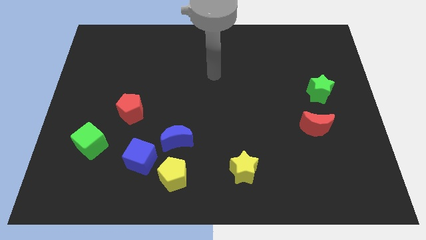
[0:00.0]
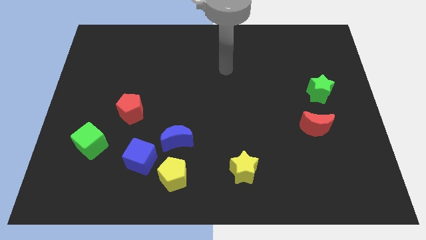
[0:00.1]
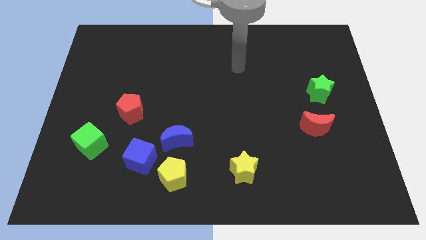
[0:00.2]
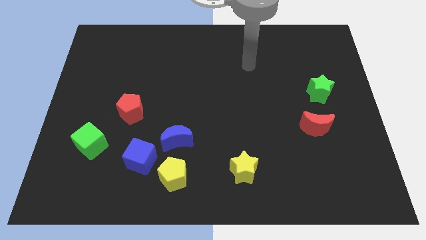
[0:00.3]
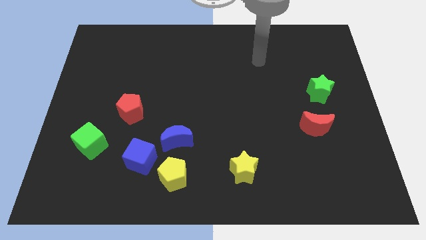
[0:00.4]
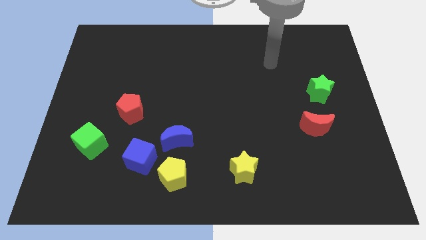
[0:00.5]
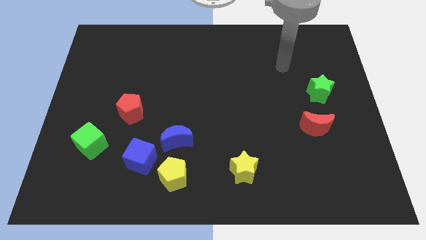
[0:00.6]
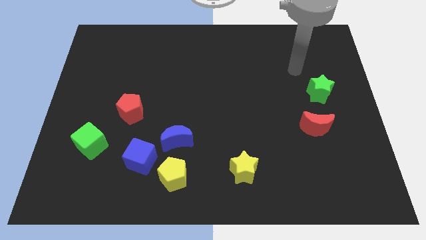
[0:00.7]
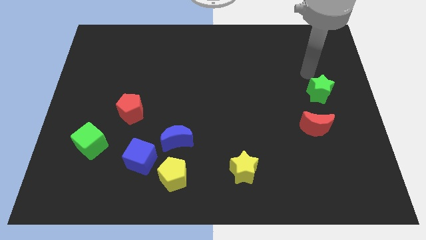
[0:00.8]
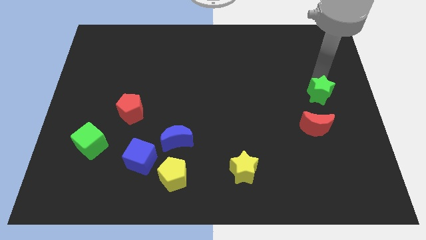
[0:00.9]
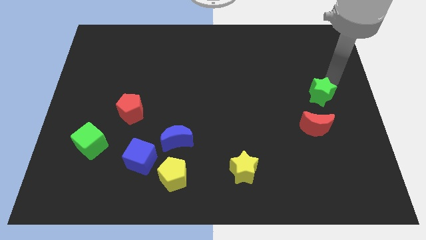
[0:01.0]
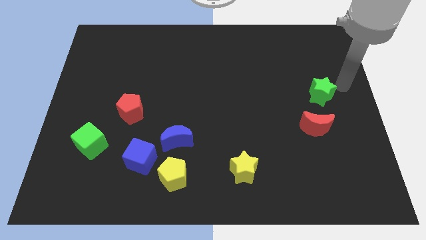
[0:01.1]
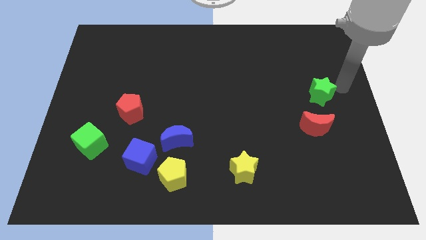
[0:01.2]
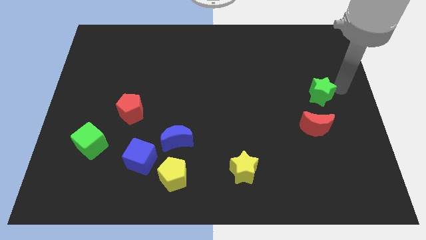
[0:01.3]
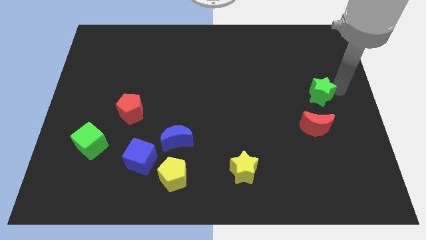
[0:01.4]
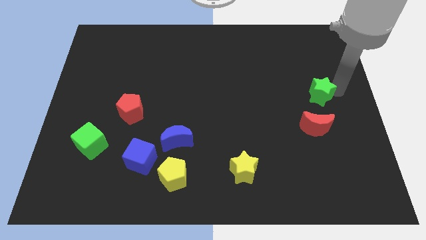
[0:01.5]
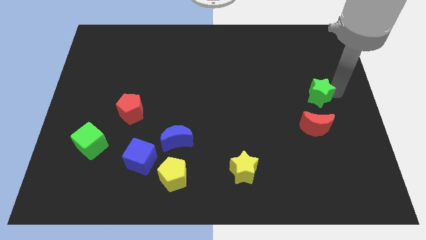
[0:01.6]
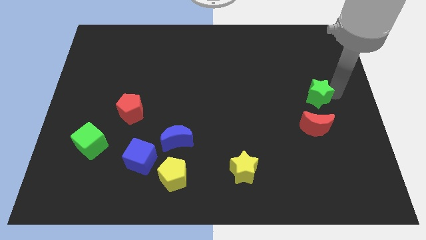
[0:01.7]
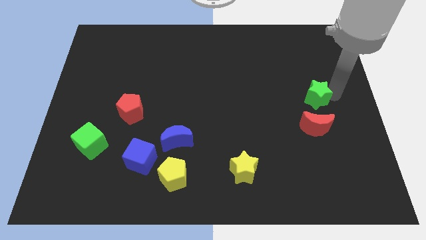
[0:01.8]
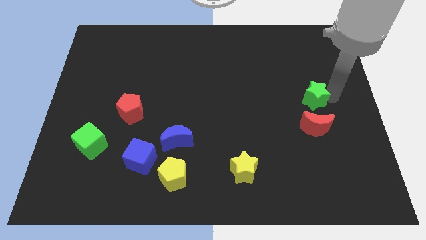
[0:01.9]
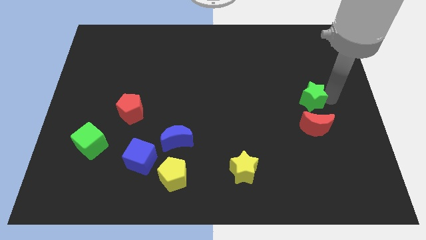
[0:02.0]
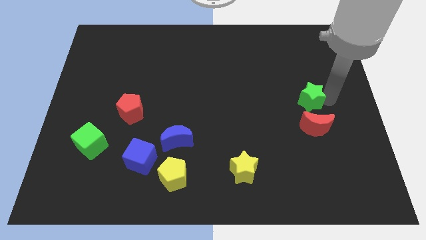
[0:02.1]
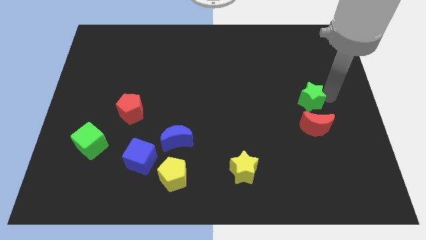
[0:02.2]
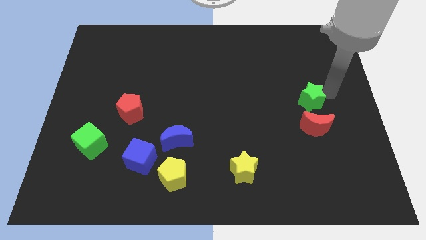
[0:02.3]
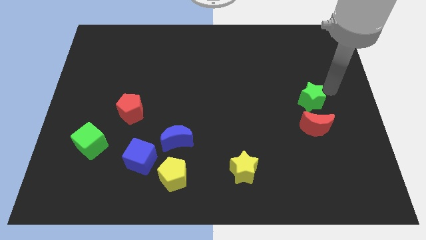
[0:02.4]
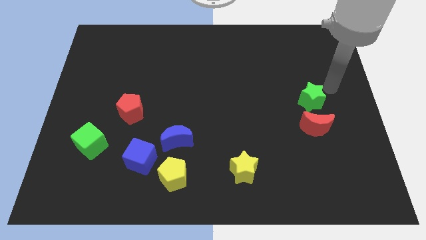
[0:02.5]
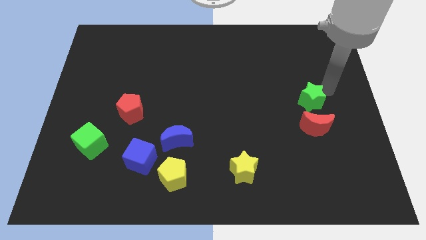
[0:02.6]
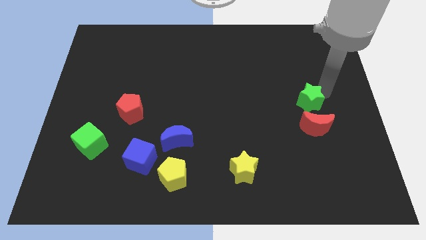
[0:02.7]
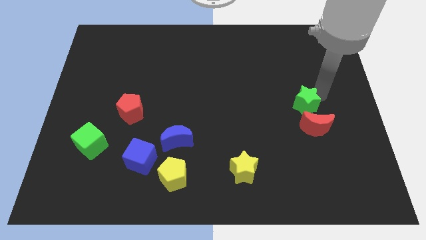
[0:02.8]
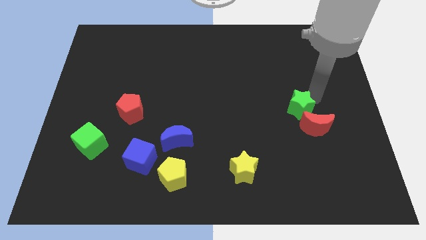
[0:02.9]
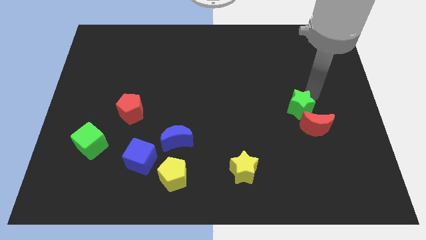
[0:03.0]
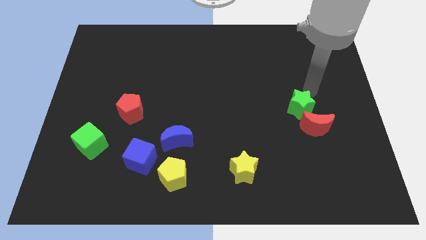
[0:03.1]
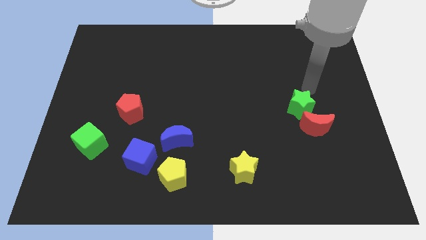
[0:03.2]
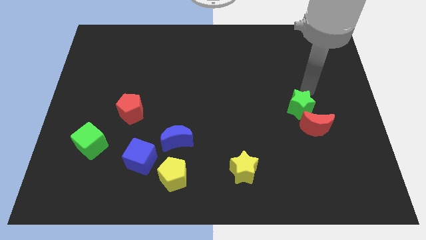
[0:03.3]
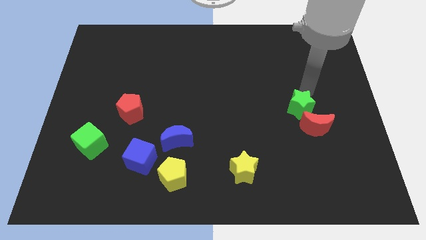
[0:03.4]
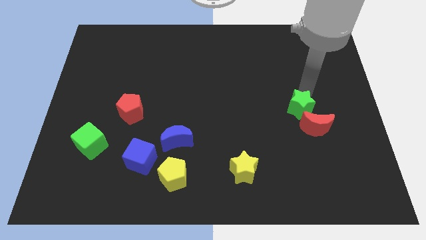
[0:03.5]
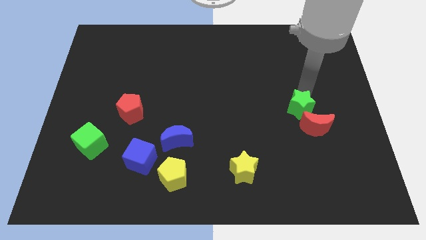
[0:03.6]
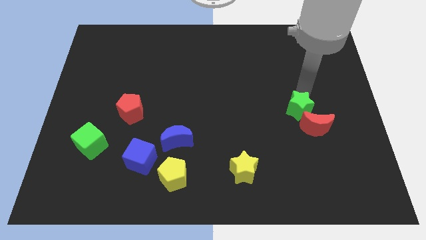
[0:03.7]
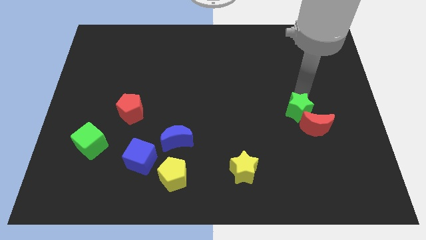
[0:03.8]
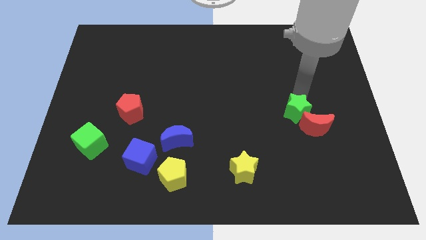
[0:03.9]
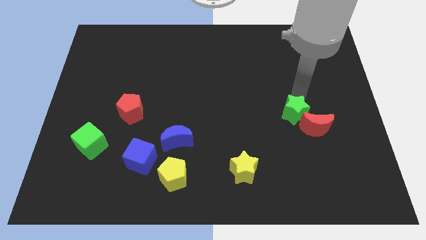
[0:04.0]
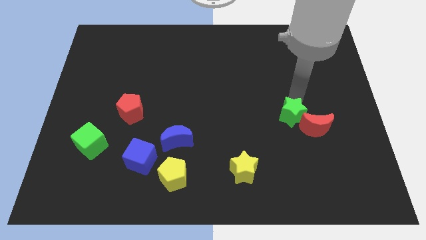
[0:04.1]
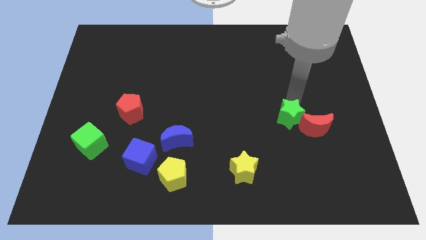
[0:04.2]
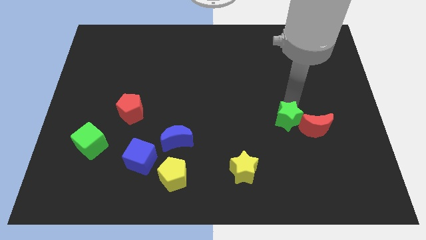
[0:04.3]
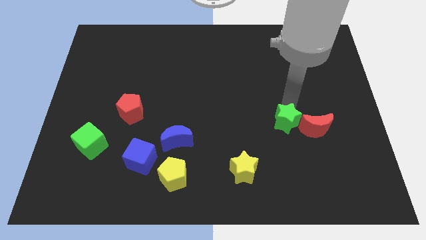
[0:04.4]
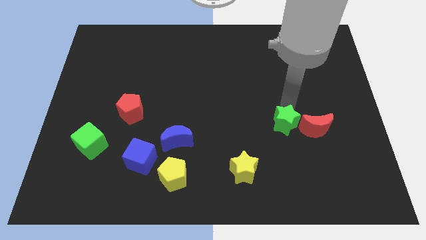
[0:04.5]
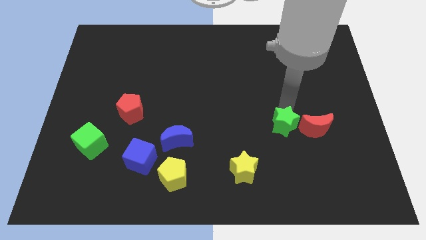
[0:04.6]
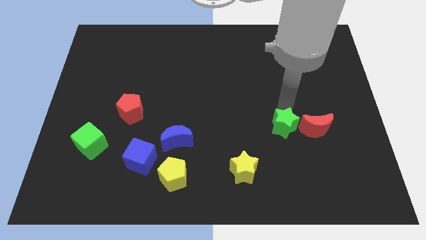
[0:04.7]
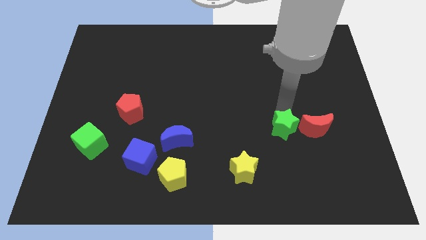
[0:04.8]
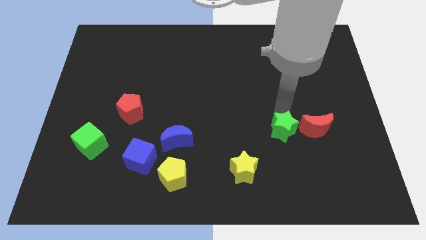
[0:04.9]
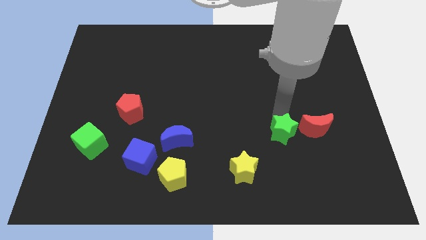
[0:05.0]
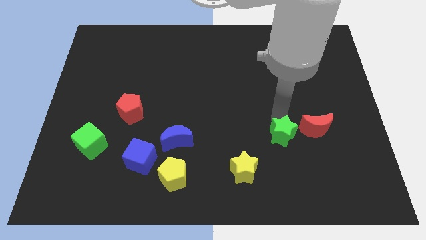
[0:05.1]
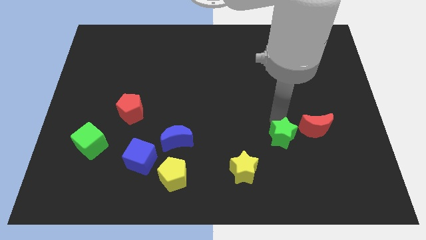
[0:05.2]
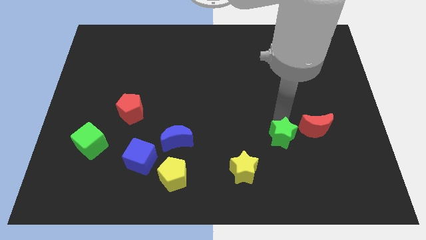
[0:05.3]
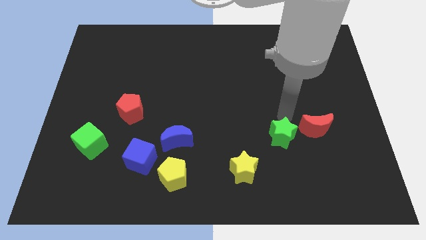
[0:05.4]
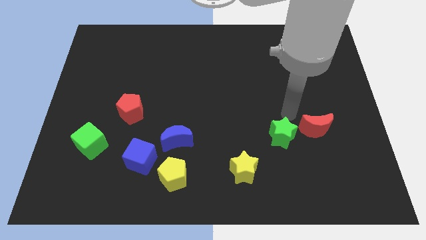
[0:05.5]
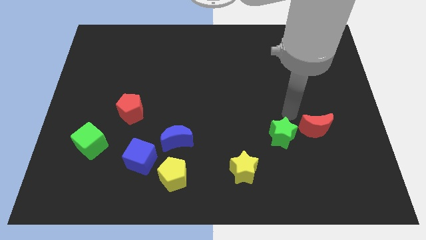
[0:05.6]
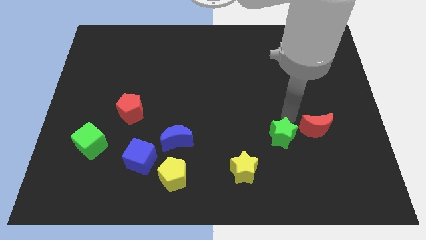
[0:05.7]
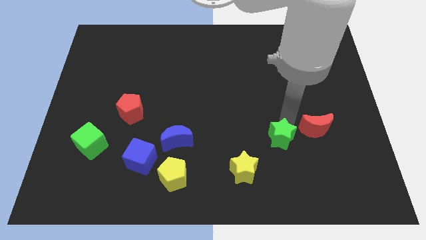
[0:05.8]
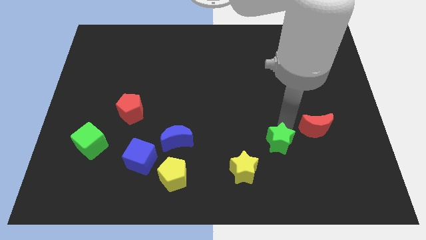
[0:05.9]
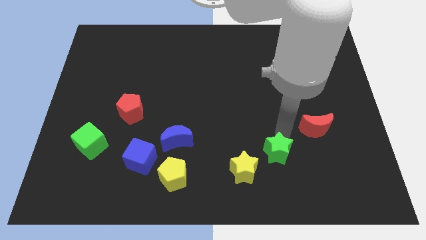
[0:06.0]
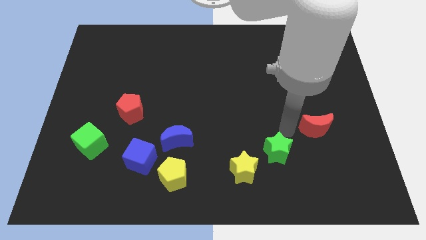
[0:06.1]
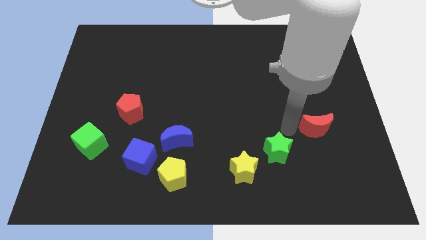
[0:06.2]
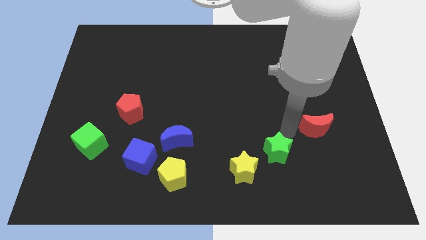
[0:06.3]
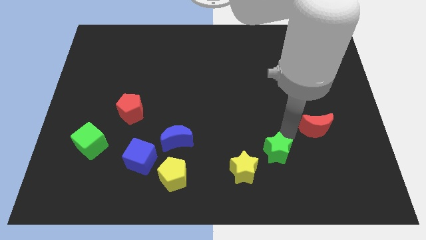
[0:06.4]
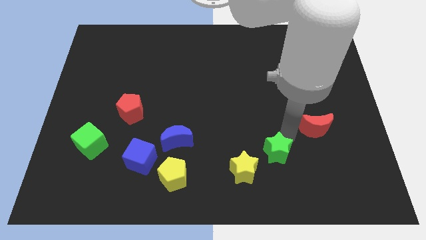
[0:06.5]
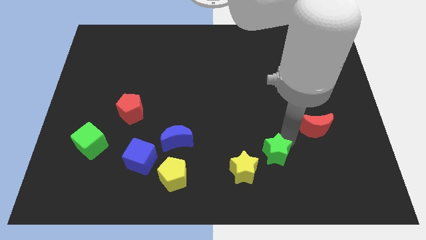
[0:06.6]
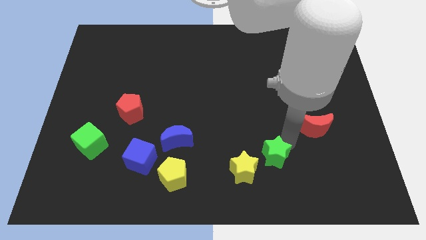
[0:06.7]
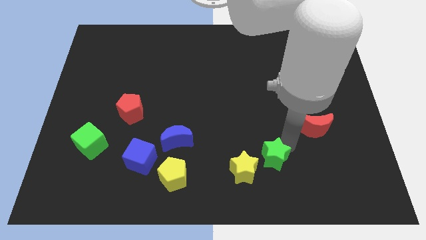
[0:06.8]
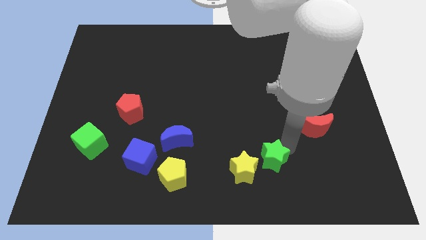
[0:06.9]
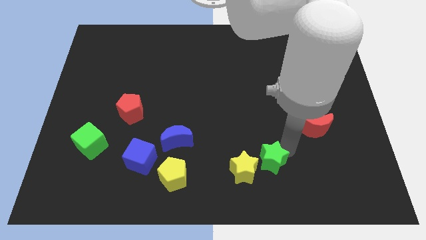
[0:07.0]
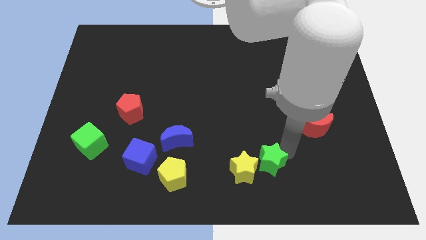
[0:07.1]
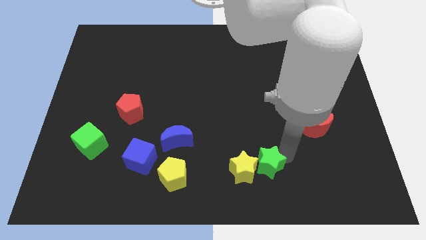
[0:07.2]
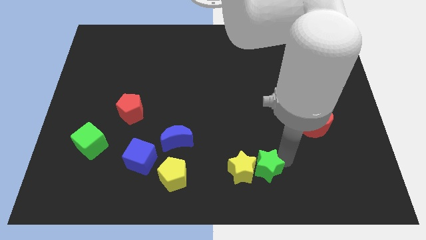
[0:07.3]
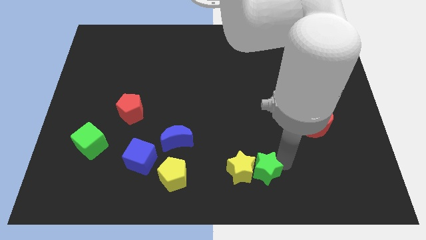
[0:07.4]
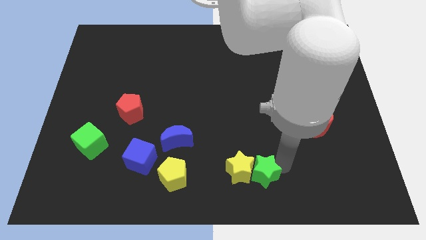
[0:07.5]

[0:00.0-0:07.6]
slide the green star to the bottom side
